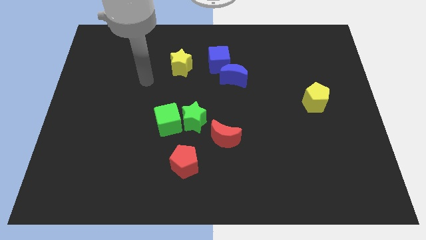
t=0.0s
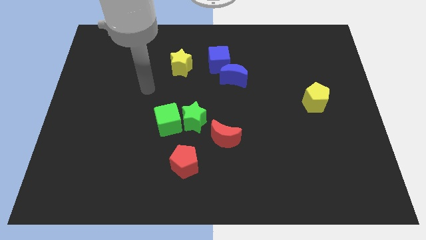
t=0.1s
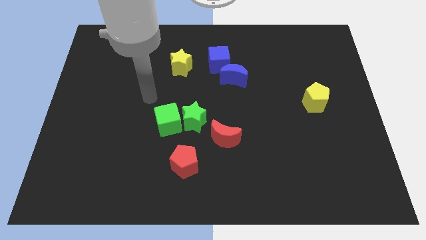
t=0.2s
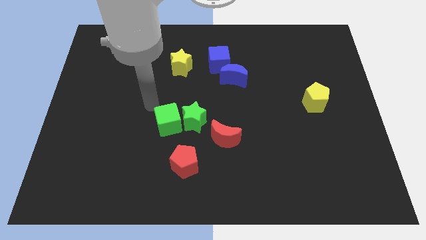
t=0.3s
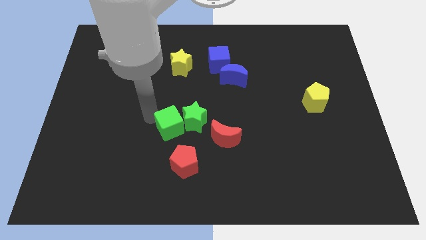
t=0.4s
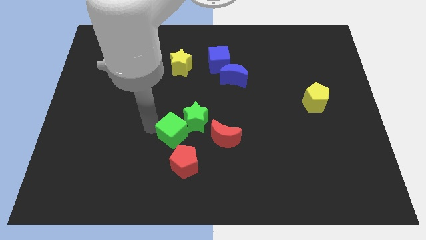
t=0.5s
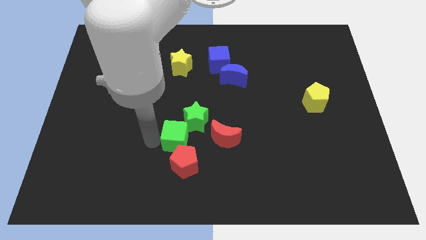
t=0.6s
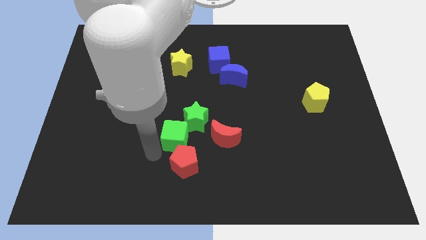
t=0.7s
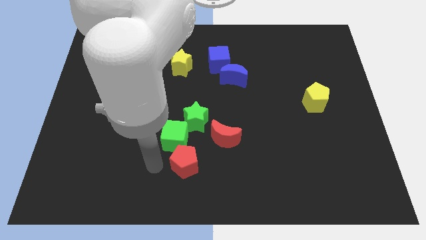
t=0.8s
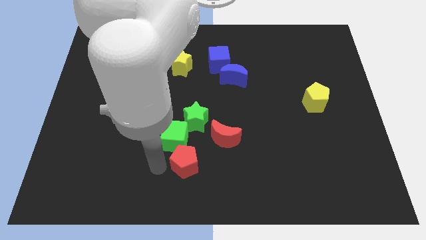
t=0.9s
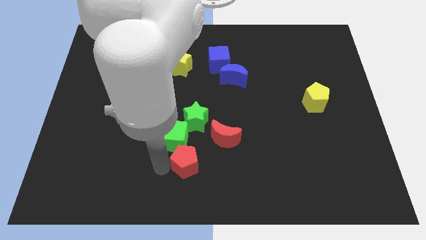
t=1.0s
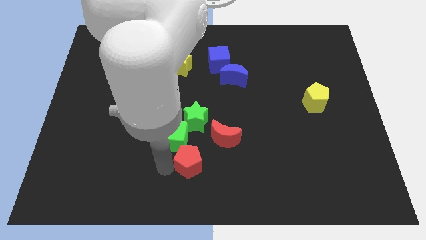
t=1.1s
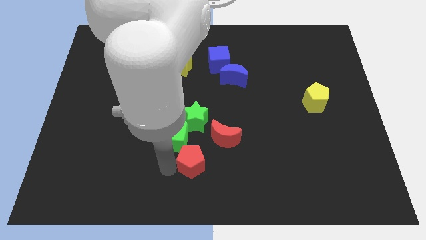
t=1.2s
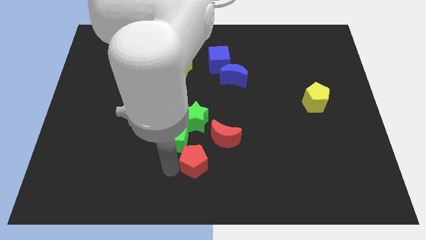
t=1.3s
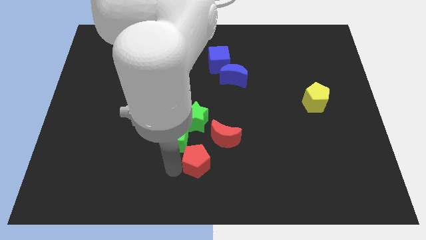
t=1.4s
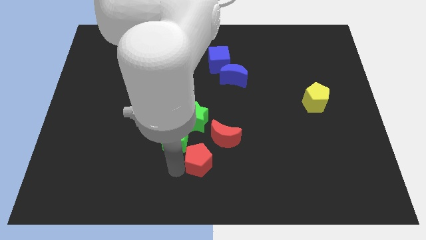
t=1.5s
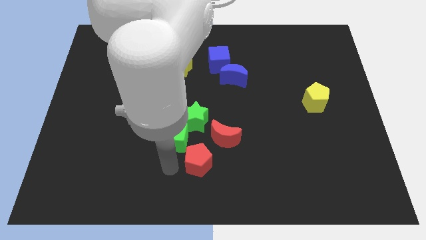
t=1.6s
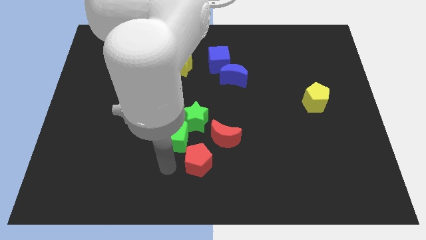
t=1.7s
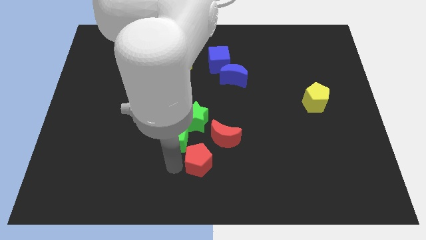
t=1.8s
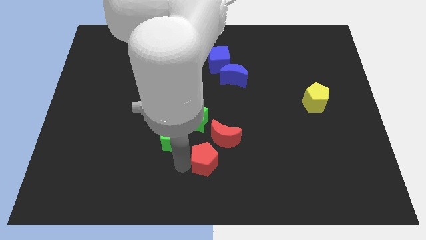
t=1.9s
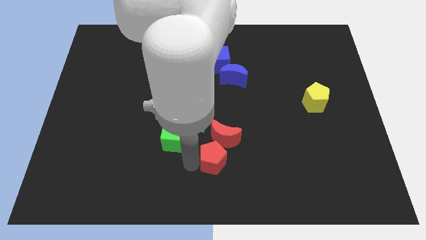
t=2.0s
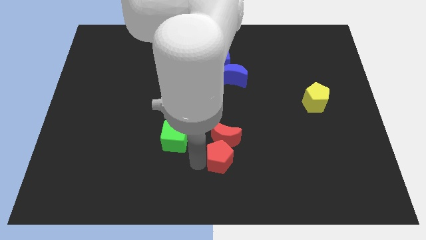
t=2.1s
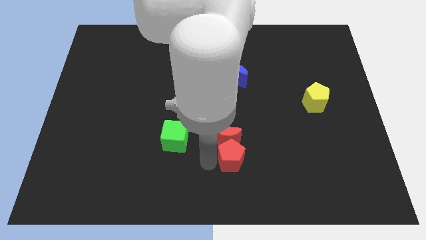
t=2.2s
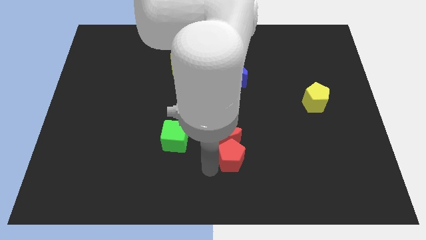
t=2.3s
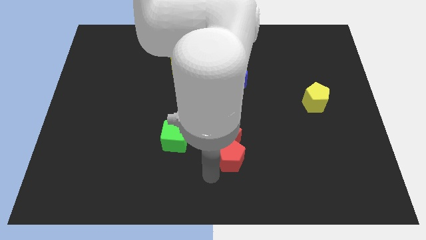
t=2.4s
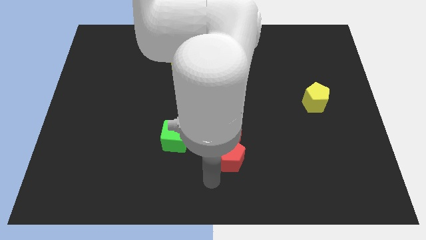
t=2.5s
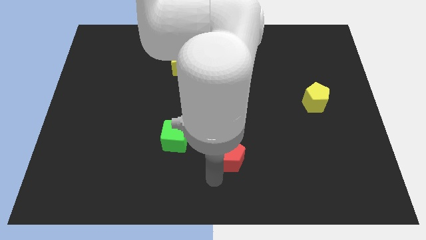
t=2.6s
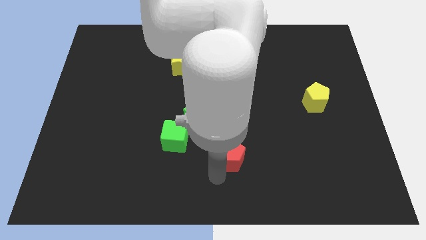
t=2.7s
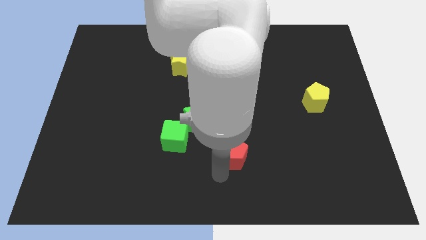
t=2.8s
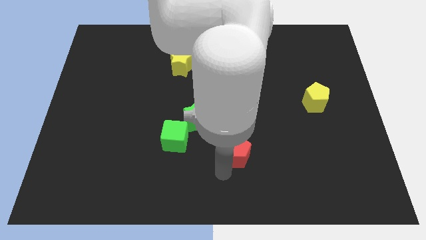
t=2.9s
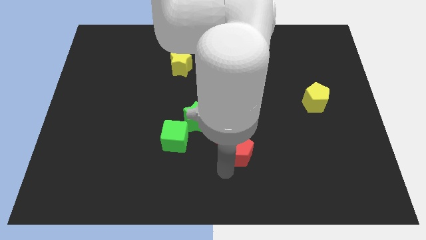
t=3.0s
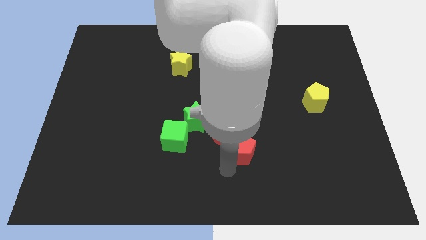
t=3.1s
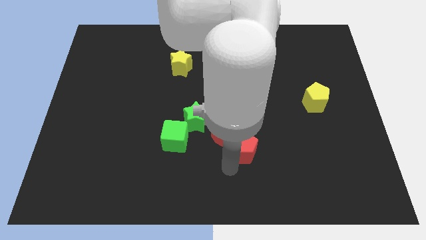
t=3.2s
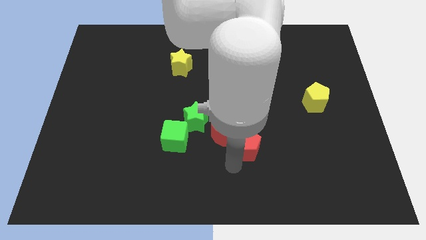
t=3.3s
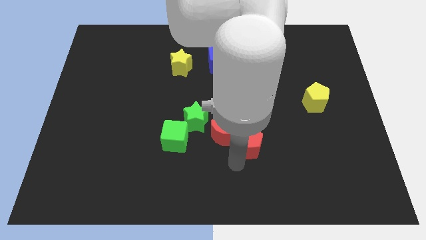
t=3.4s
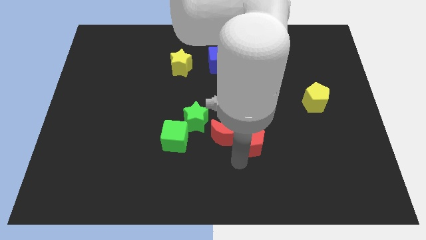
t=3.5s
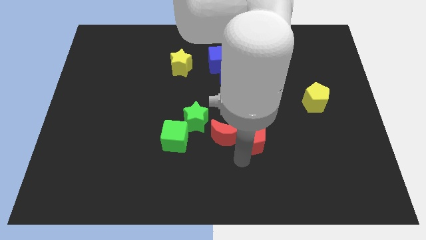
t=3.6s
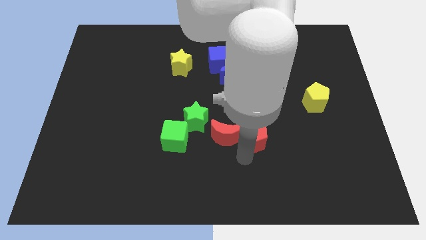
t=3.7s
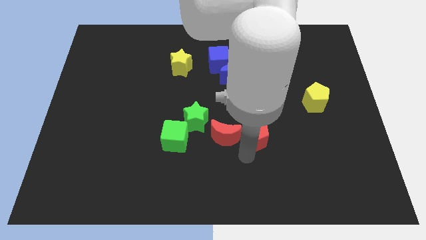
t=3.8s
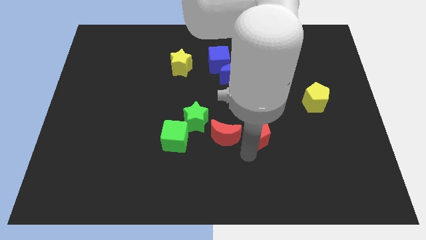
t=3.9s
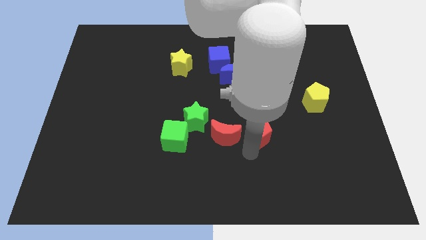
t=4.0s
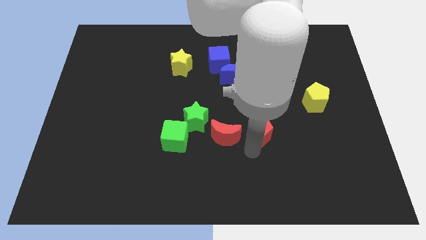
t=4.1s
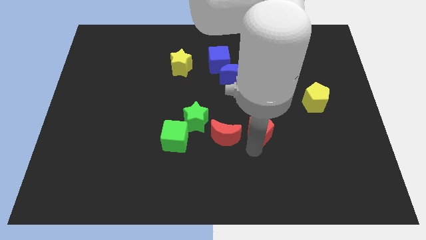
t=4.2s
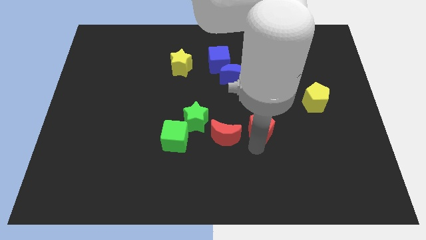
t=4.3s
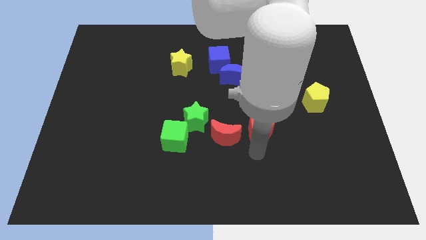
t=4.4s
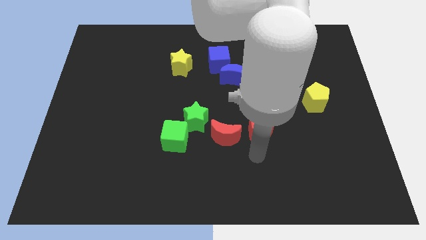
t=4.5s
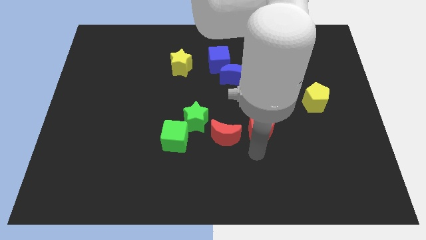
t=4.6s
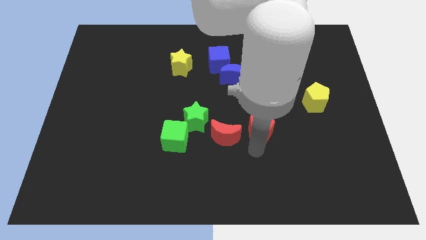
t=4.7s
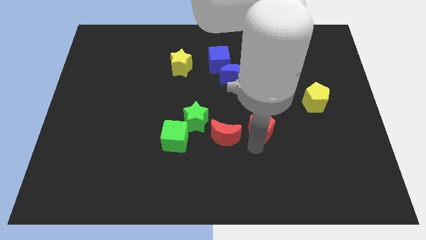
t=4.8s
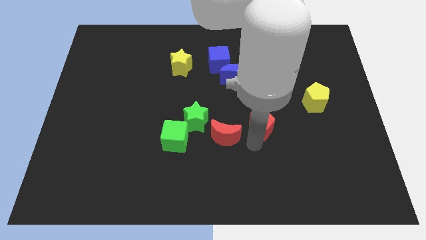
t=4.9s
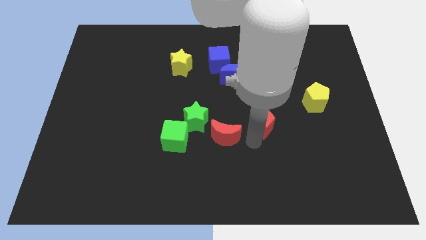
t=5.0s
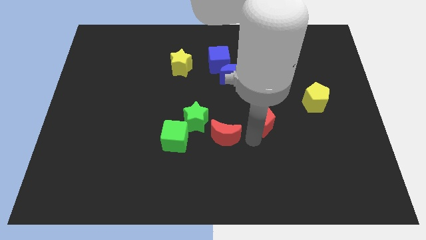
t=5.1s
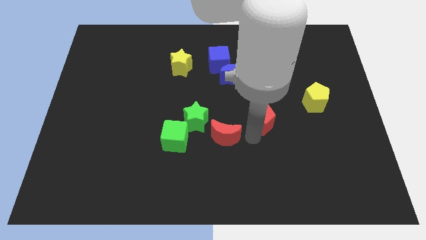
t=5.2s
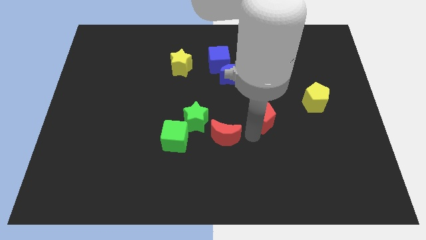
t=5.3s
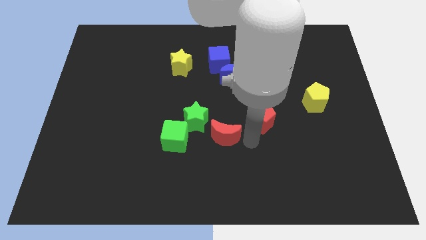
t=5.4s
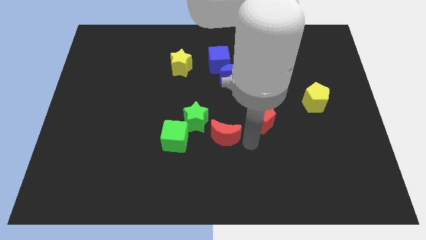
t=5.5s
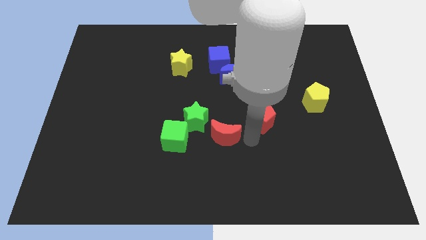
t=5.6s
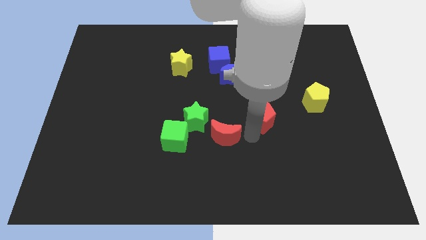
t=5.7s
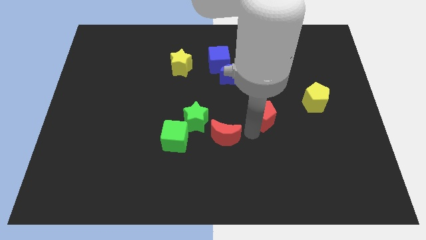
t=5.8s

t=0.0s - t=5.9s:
move the red pentagon up and right diagonally

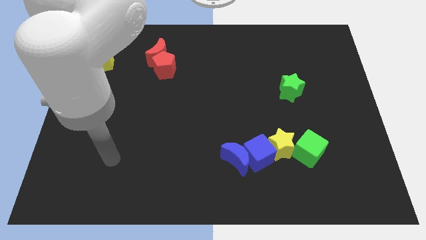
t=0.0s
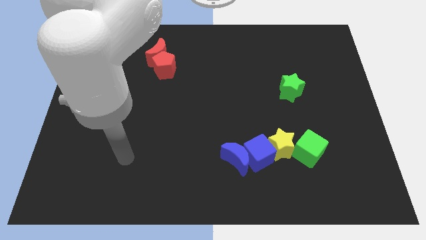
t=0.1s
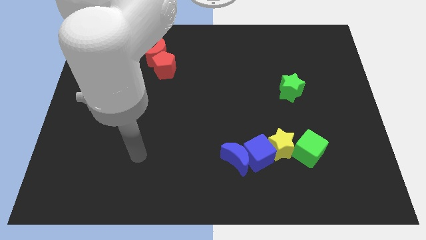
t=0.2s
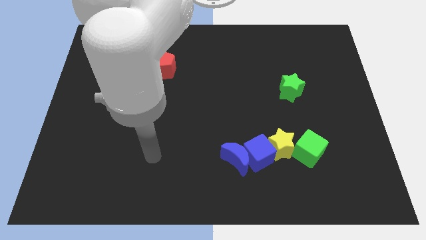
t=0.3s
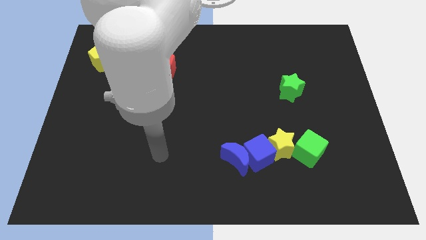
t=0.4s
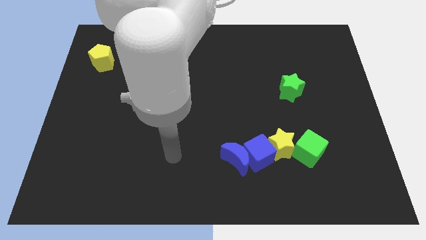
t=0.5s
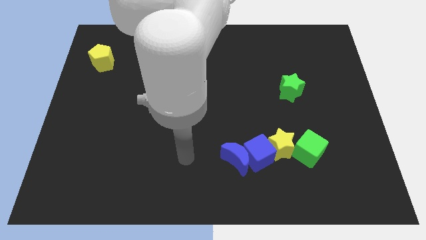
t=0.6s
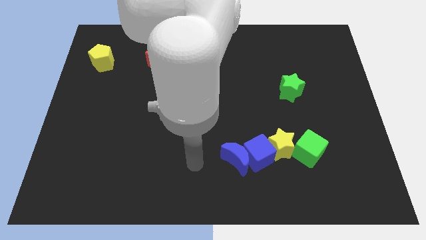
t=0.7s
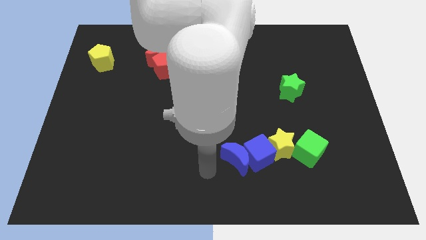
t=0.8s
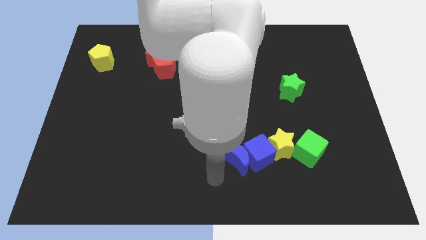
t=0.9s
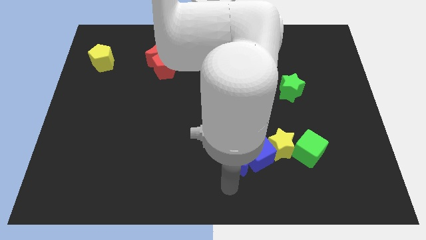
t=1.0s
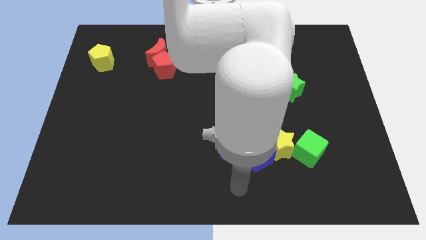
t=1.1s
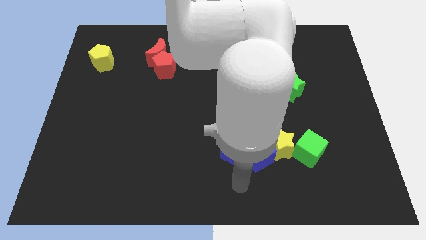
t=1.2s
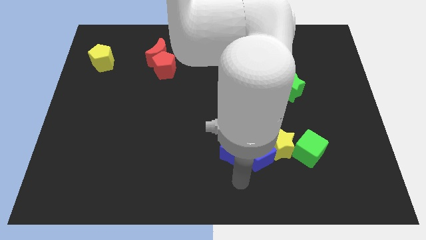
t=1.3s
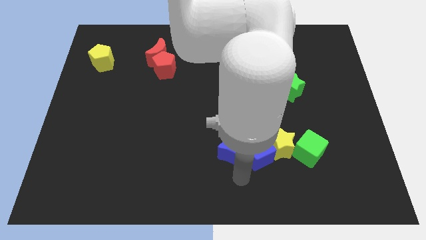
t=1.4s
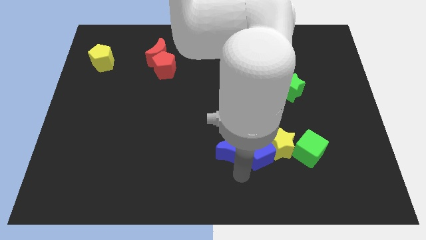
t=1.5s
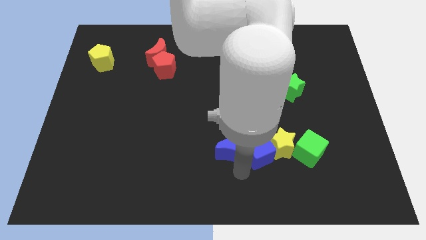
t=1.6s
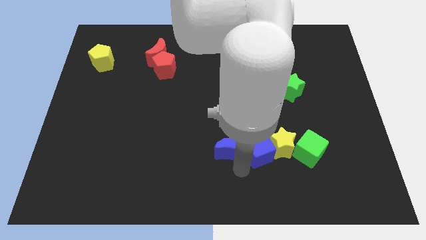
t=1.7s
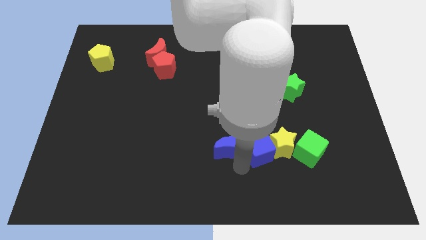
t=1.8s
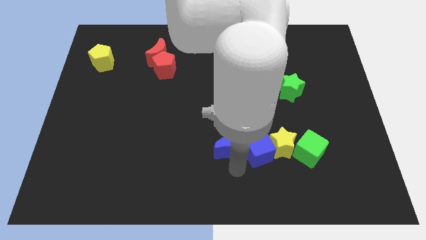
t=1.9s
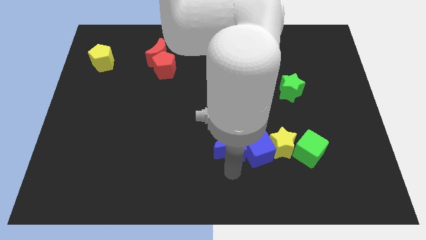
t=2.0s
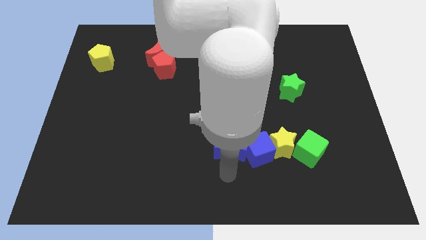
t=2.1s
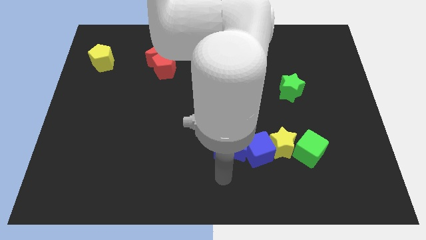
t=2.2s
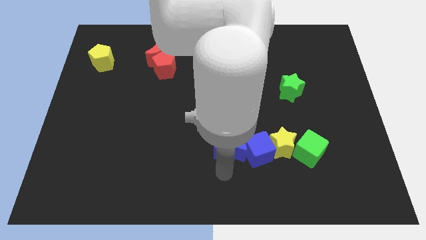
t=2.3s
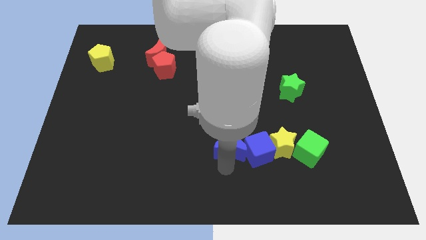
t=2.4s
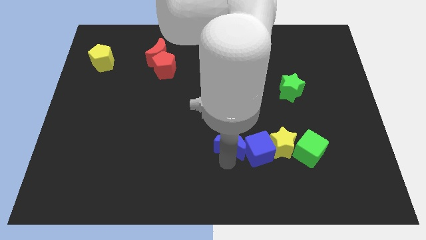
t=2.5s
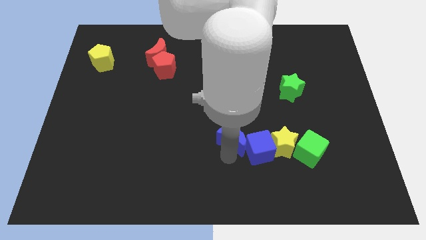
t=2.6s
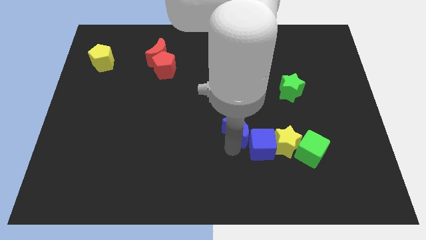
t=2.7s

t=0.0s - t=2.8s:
slightly push the blue moon upwards
